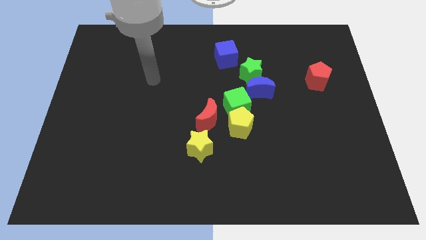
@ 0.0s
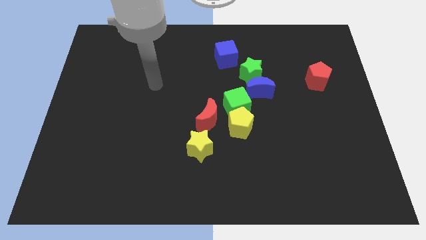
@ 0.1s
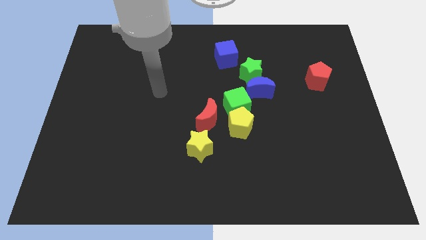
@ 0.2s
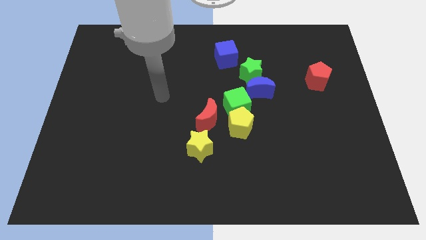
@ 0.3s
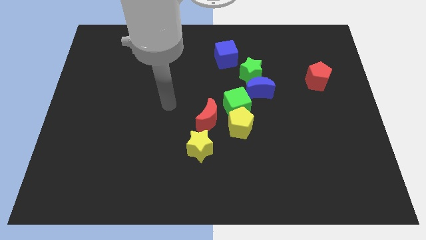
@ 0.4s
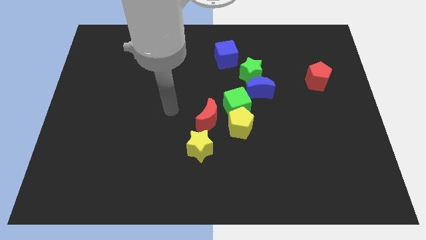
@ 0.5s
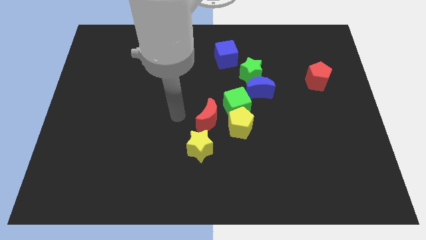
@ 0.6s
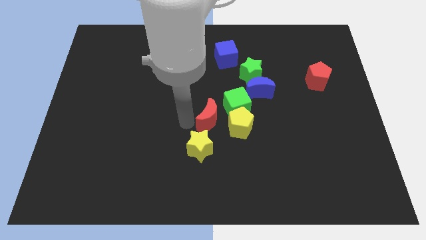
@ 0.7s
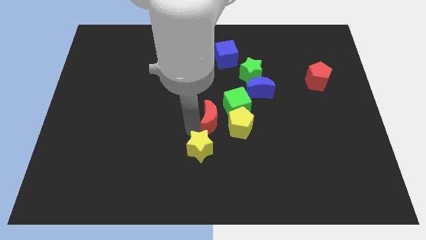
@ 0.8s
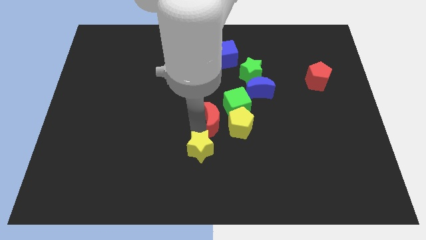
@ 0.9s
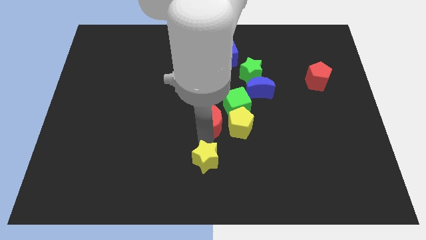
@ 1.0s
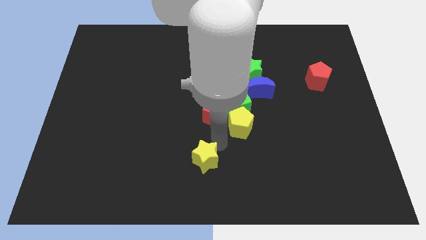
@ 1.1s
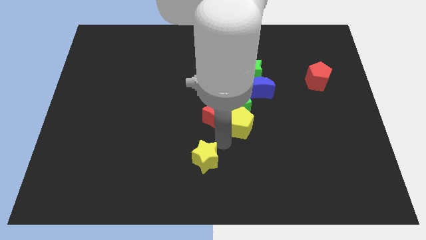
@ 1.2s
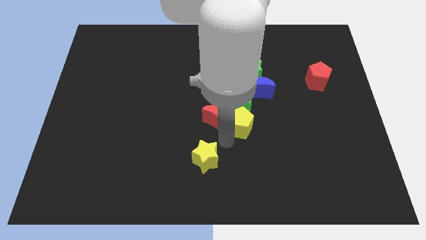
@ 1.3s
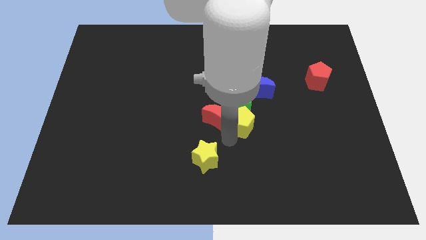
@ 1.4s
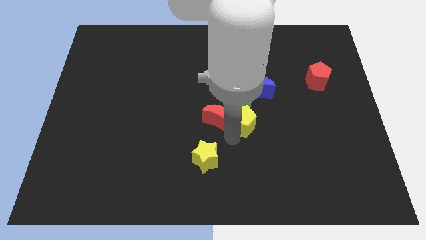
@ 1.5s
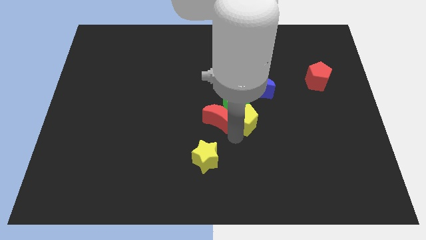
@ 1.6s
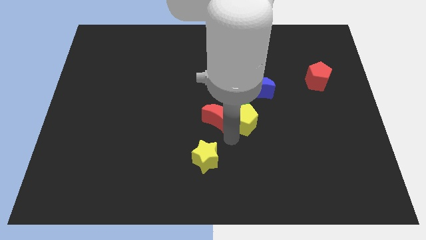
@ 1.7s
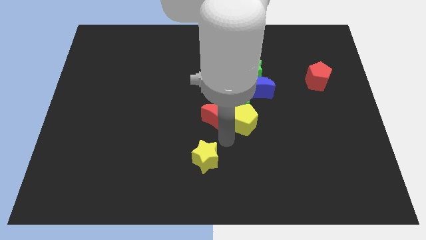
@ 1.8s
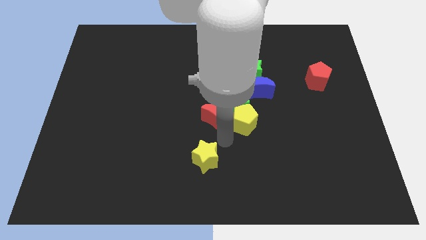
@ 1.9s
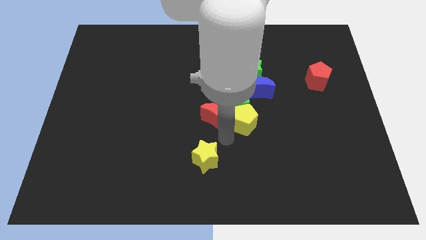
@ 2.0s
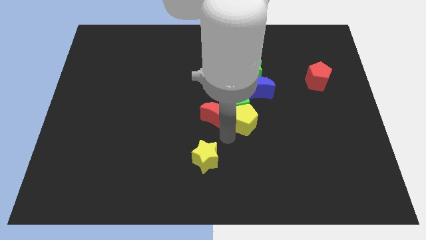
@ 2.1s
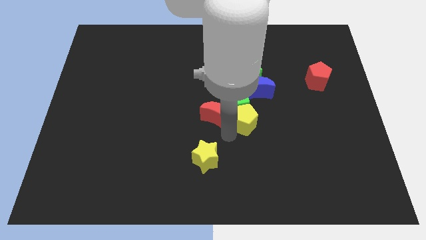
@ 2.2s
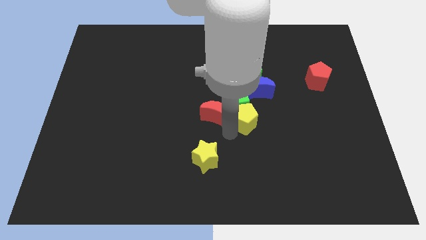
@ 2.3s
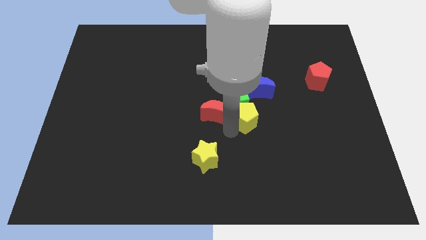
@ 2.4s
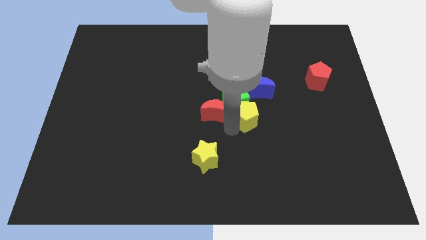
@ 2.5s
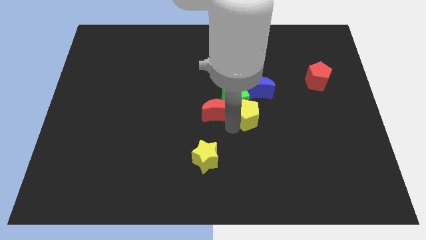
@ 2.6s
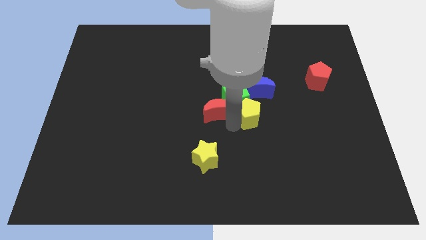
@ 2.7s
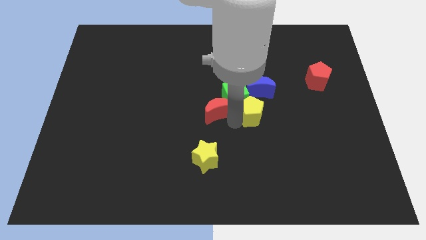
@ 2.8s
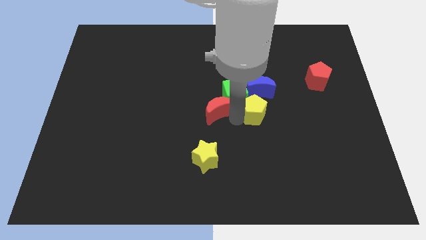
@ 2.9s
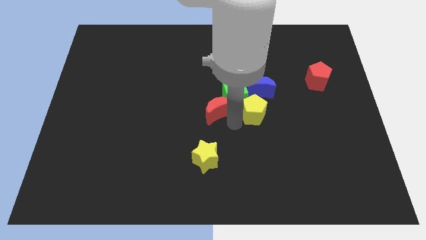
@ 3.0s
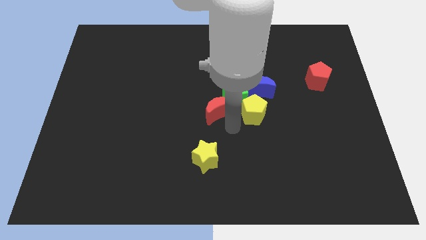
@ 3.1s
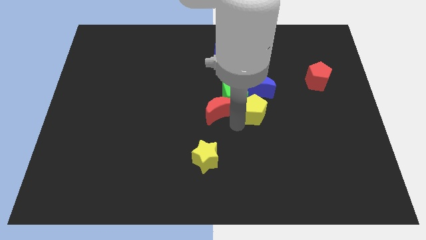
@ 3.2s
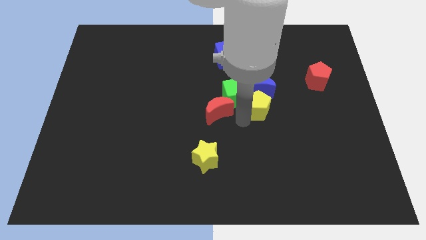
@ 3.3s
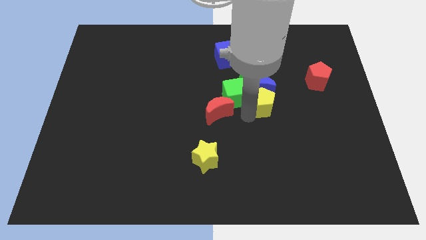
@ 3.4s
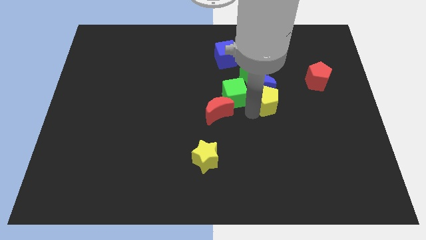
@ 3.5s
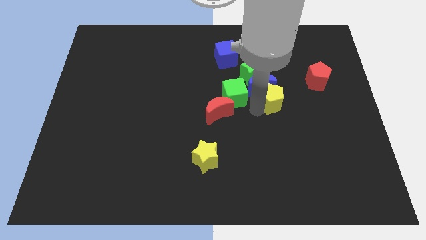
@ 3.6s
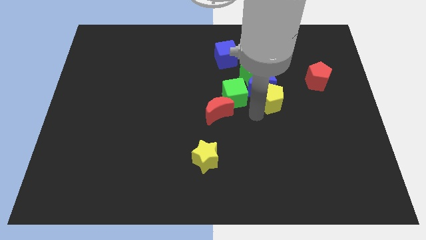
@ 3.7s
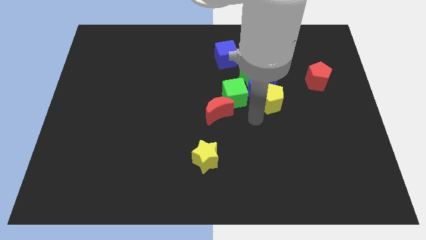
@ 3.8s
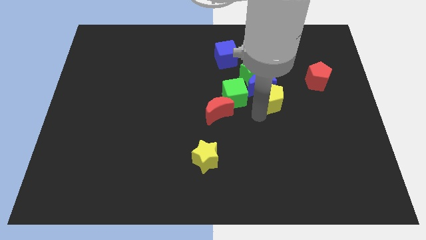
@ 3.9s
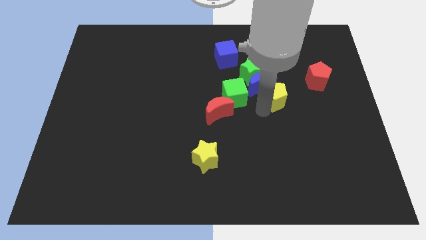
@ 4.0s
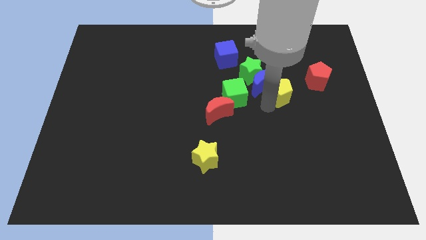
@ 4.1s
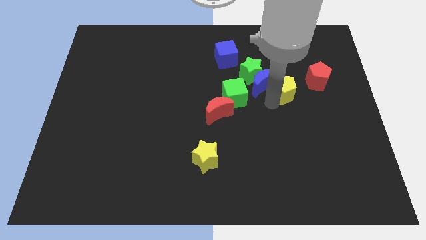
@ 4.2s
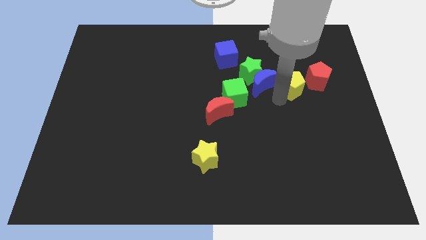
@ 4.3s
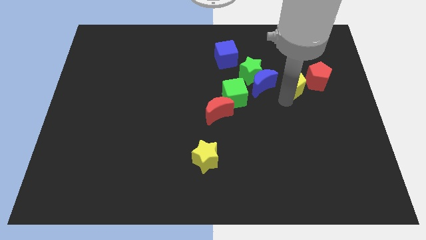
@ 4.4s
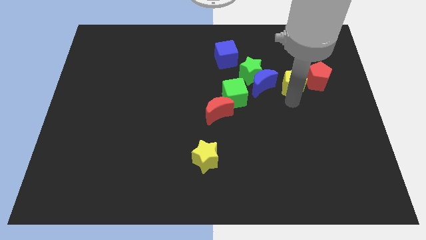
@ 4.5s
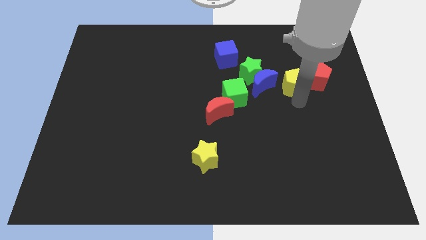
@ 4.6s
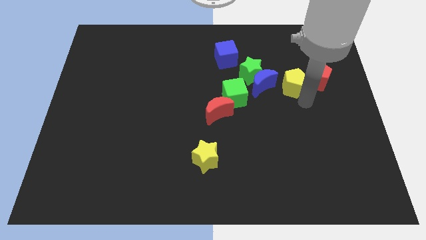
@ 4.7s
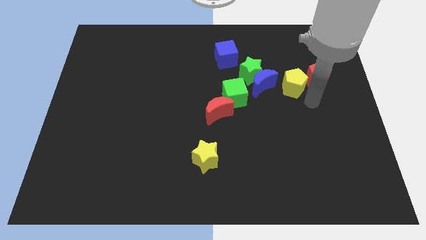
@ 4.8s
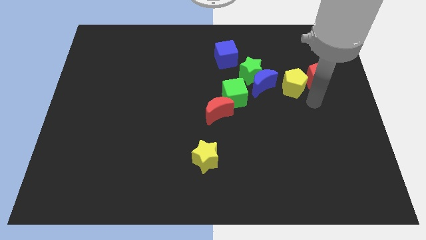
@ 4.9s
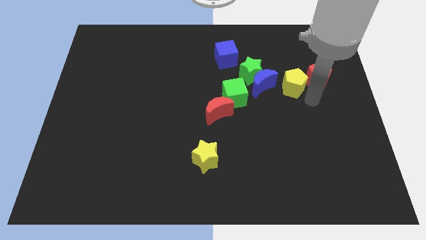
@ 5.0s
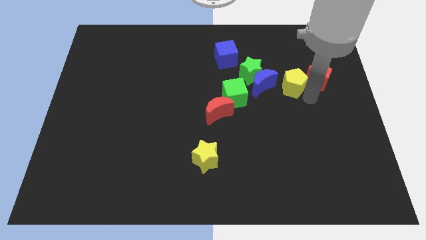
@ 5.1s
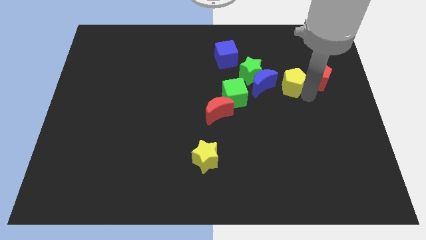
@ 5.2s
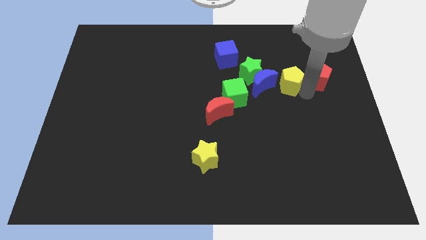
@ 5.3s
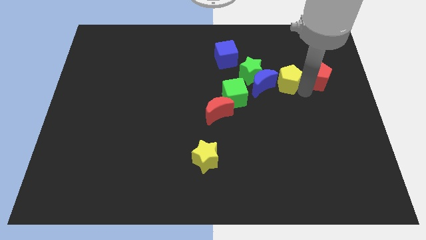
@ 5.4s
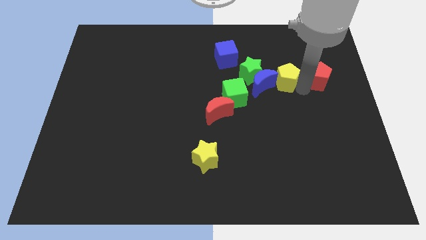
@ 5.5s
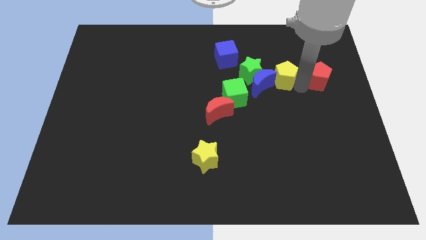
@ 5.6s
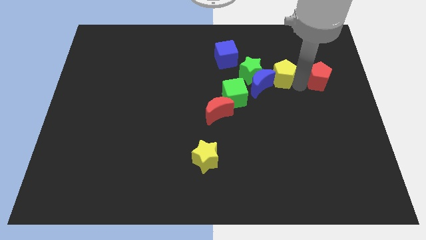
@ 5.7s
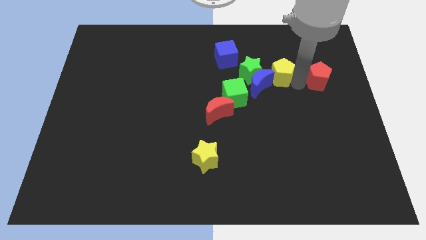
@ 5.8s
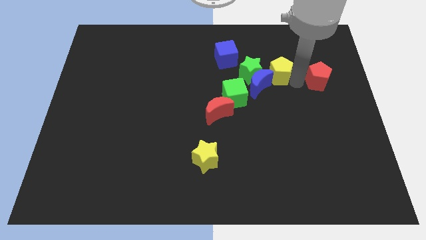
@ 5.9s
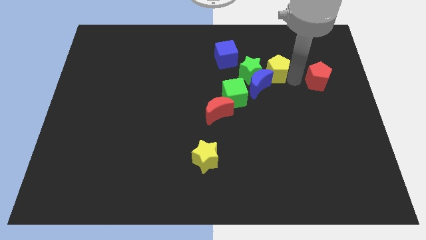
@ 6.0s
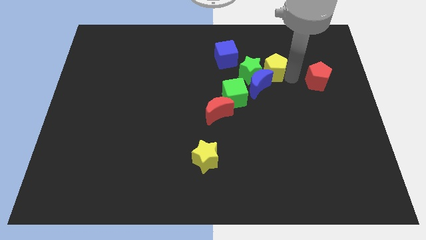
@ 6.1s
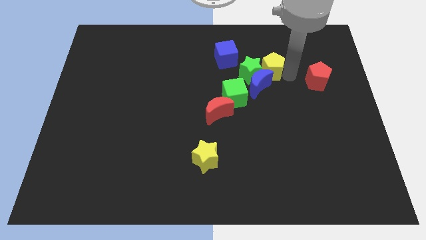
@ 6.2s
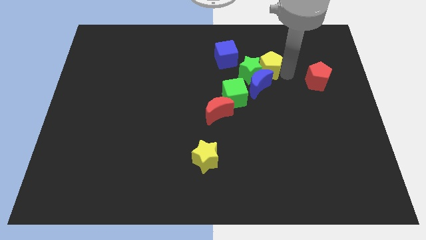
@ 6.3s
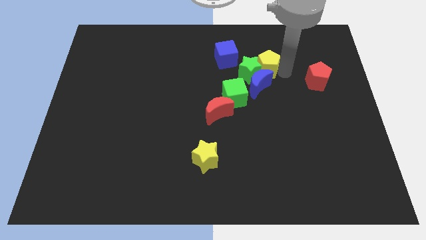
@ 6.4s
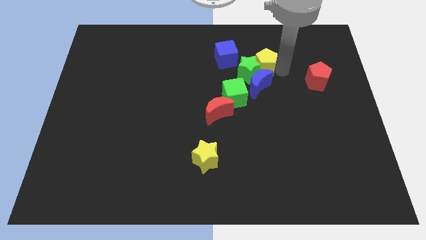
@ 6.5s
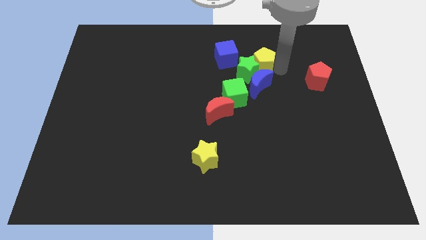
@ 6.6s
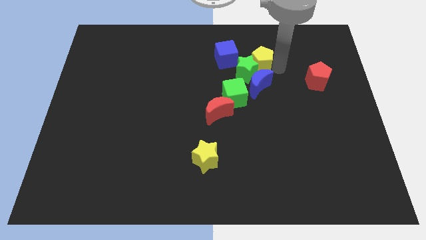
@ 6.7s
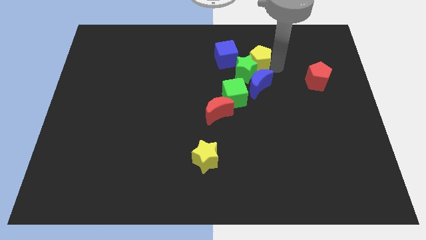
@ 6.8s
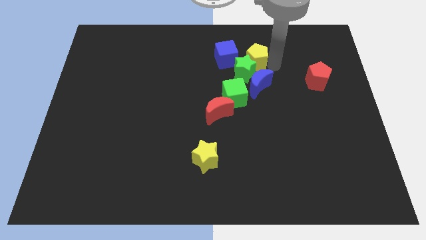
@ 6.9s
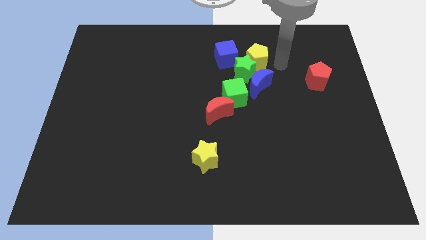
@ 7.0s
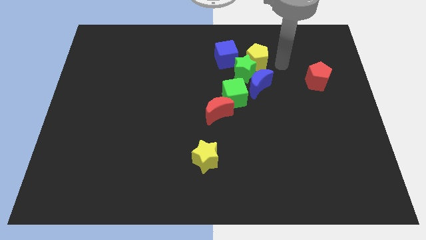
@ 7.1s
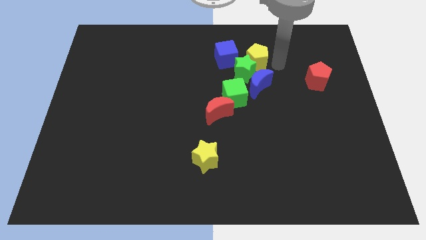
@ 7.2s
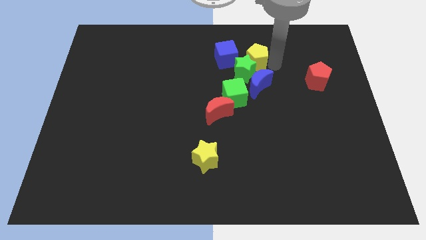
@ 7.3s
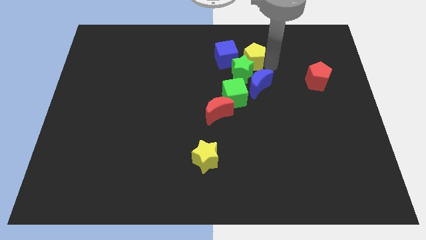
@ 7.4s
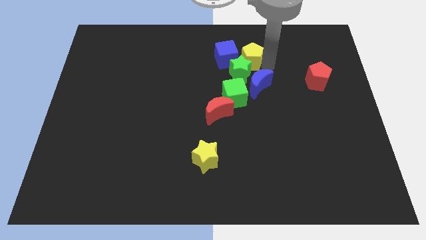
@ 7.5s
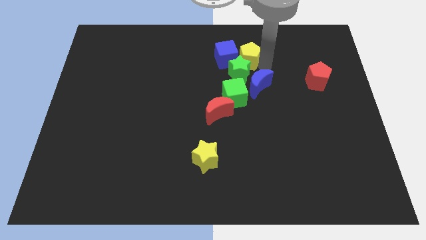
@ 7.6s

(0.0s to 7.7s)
slide the yellow pentagon next to the blue cube

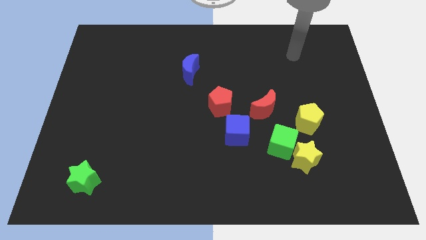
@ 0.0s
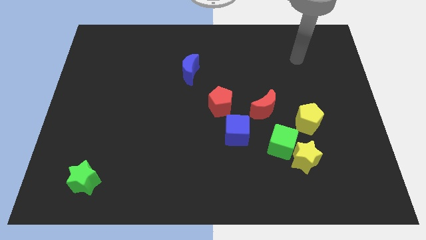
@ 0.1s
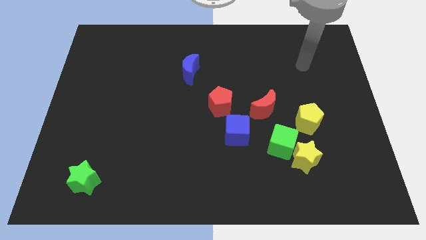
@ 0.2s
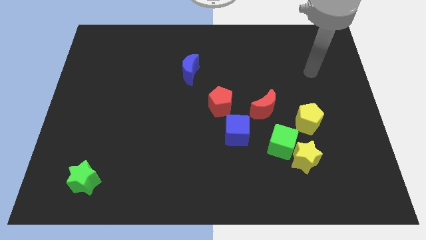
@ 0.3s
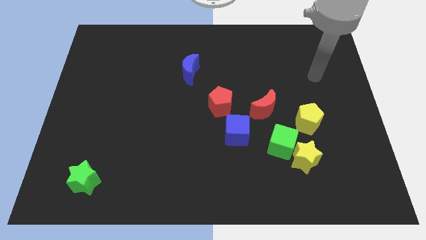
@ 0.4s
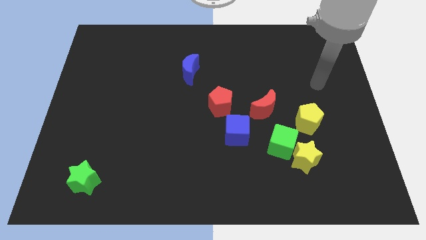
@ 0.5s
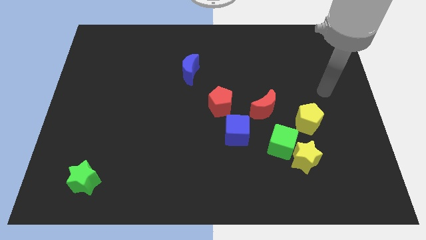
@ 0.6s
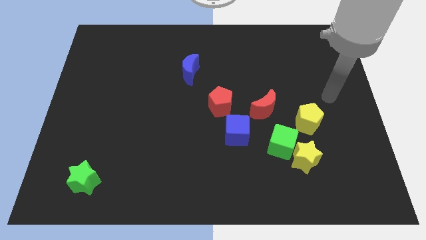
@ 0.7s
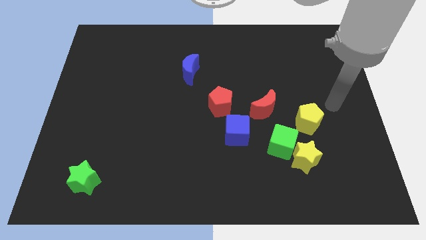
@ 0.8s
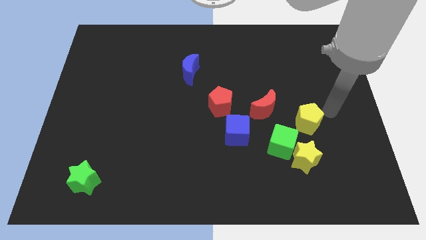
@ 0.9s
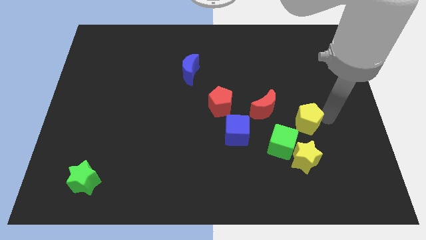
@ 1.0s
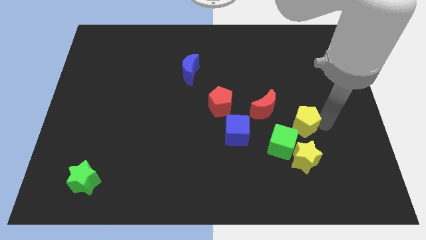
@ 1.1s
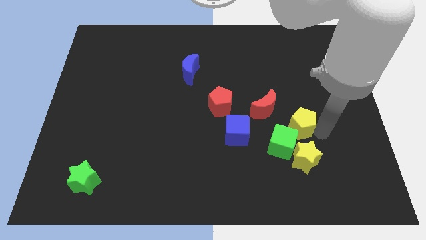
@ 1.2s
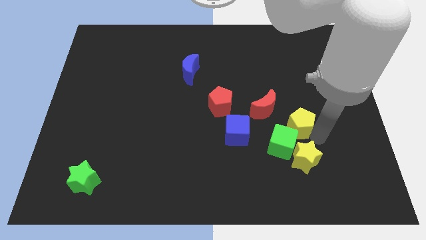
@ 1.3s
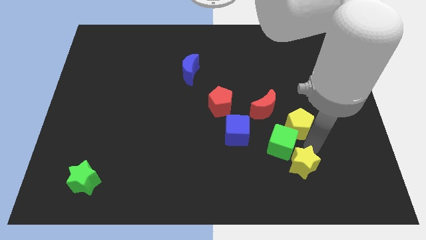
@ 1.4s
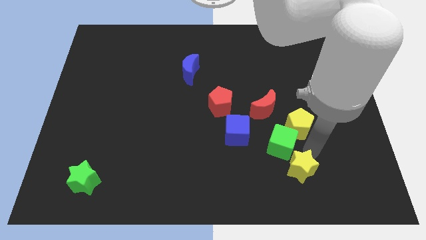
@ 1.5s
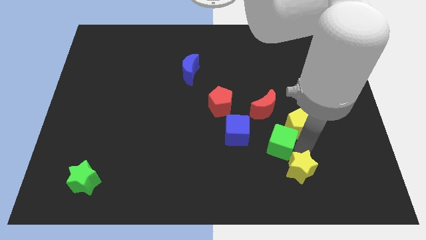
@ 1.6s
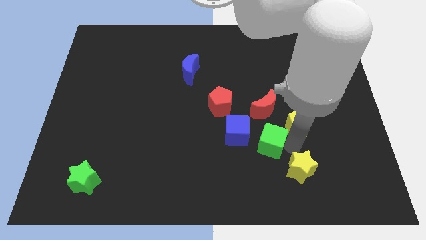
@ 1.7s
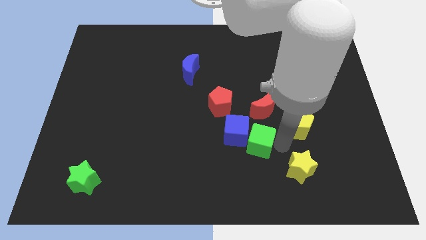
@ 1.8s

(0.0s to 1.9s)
put the green cube to the blue cube
